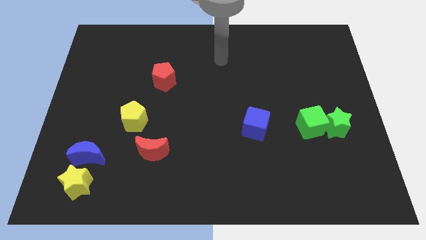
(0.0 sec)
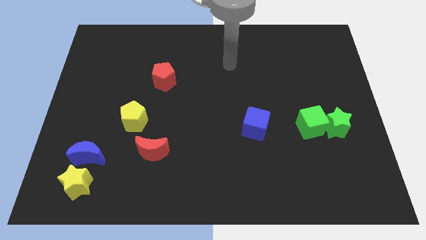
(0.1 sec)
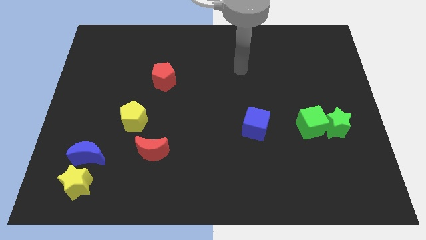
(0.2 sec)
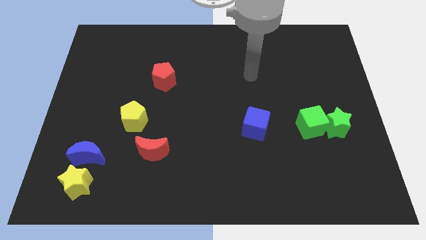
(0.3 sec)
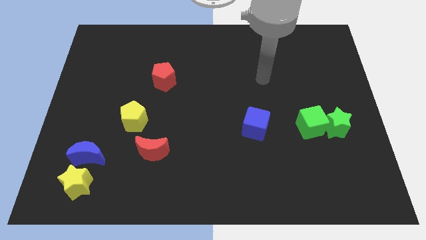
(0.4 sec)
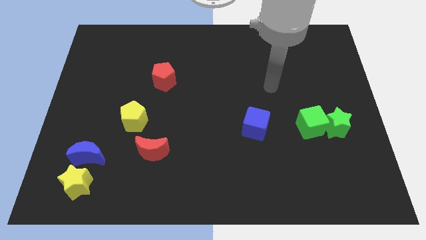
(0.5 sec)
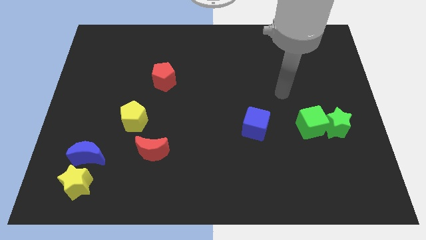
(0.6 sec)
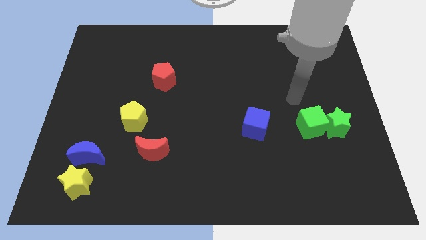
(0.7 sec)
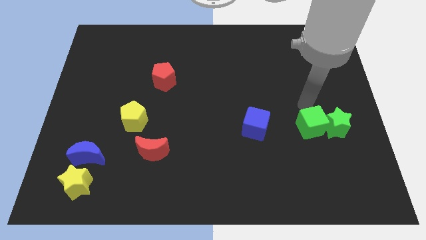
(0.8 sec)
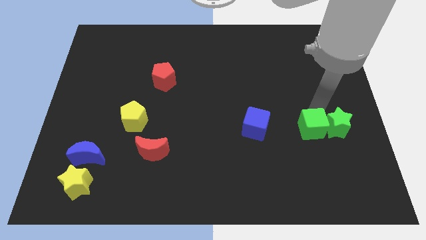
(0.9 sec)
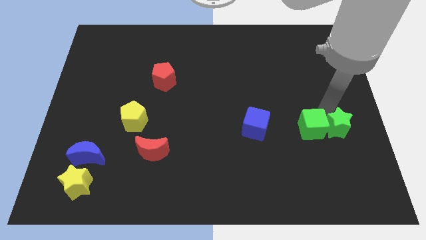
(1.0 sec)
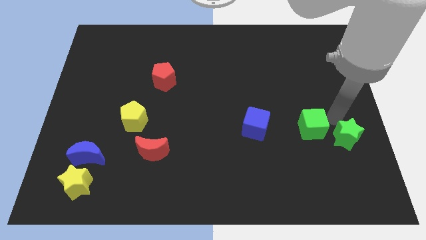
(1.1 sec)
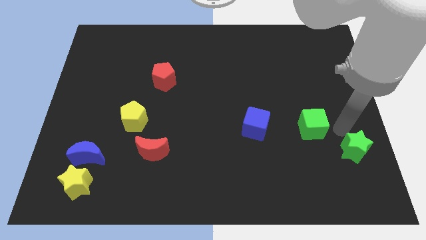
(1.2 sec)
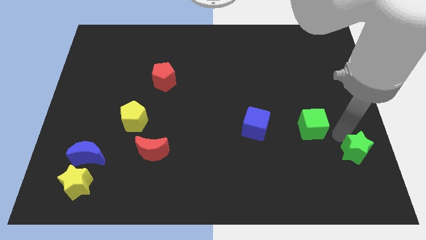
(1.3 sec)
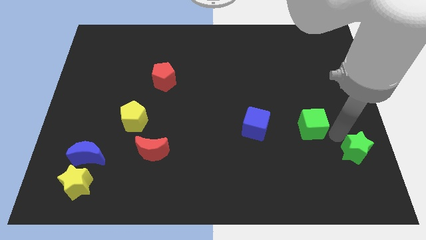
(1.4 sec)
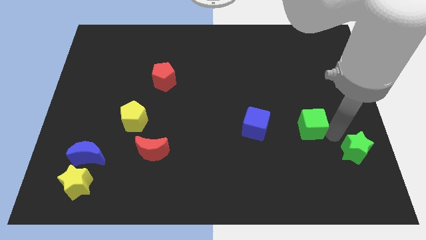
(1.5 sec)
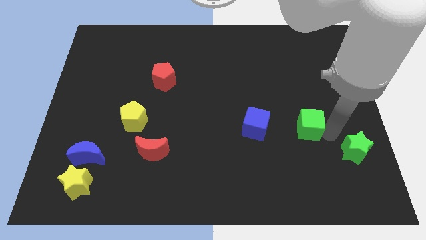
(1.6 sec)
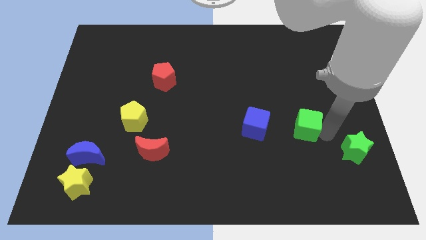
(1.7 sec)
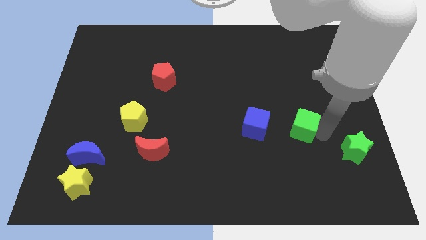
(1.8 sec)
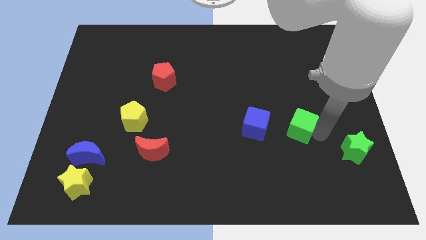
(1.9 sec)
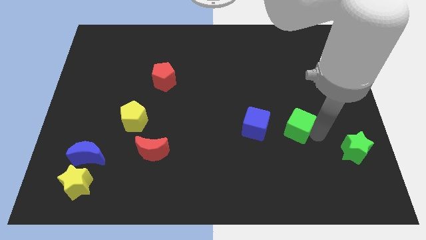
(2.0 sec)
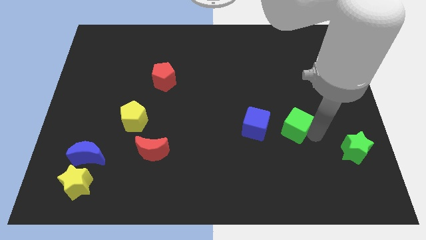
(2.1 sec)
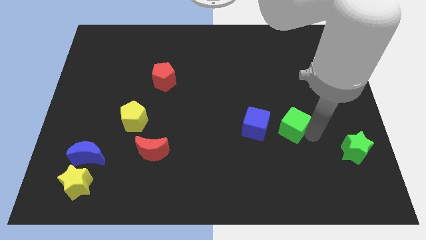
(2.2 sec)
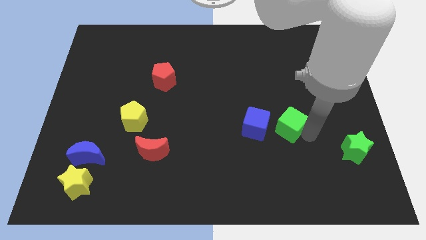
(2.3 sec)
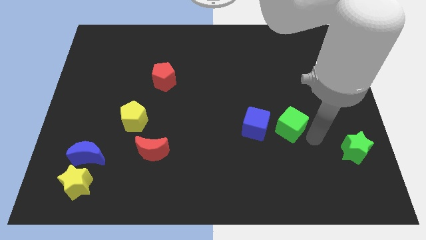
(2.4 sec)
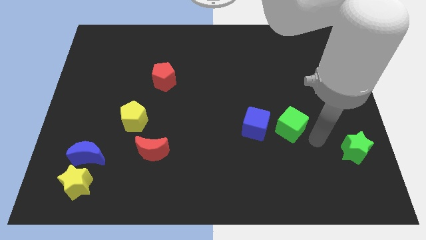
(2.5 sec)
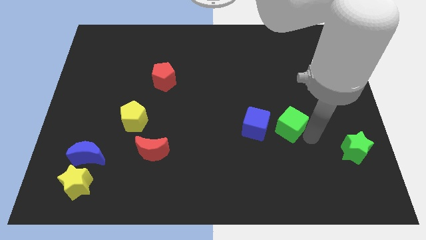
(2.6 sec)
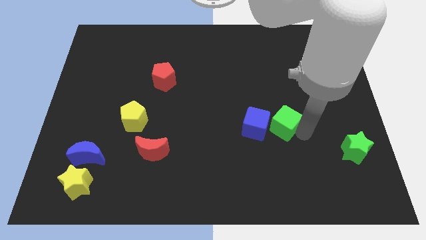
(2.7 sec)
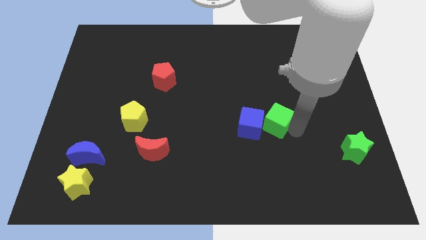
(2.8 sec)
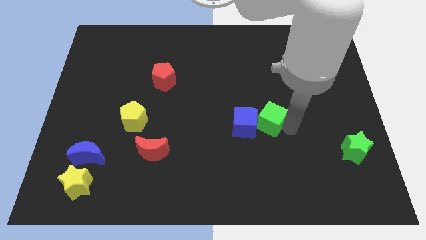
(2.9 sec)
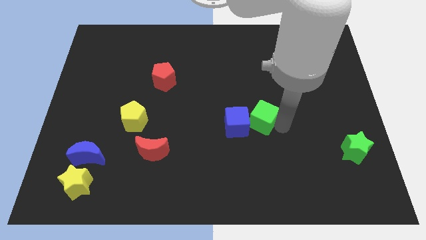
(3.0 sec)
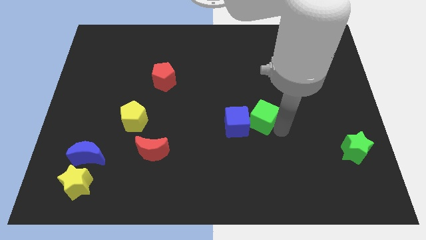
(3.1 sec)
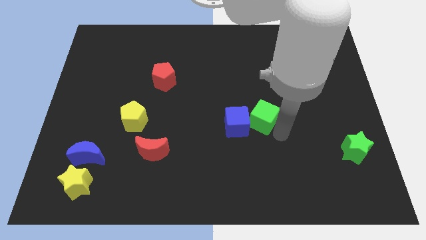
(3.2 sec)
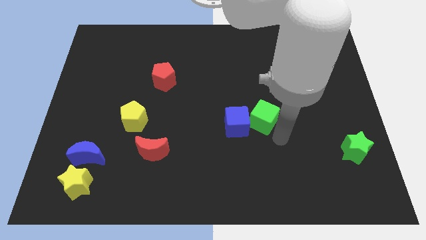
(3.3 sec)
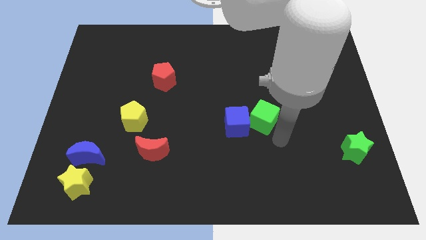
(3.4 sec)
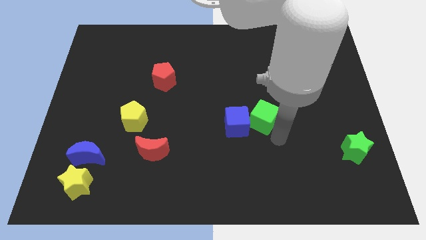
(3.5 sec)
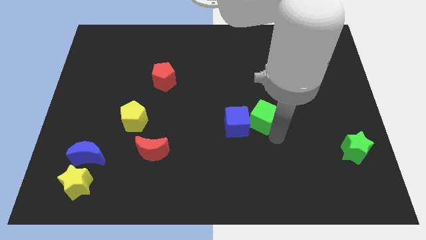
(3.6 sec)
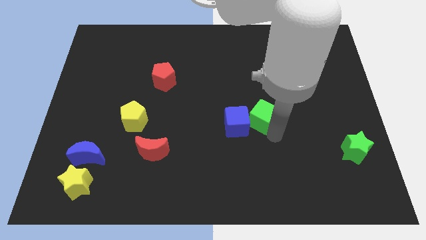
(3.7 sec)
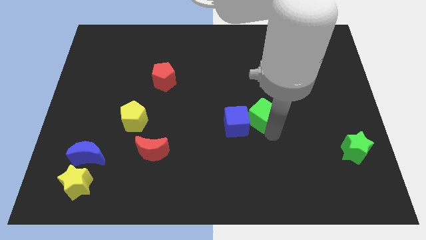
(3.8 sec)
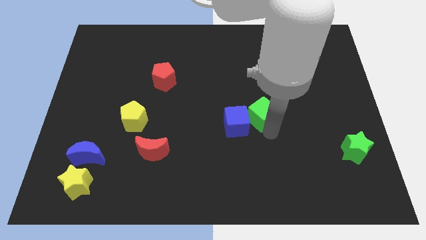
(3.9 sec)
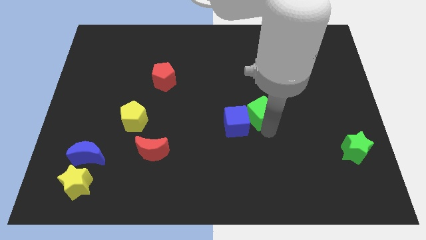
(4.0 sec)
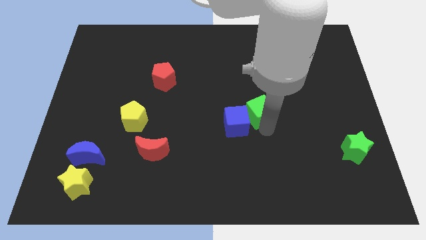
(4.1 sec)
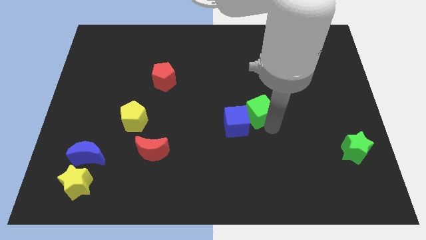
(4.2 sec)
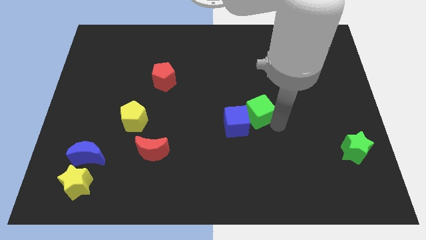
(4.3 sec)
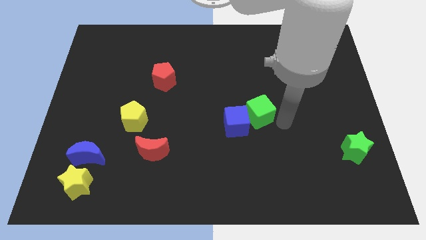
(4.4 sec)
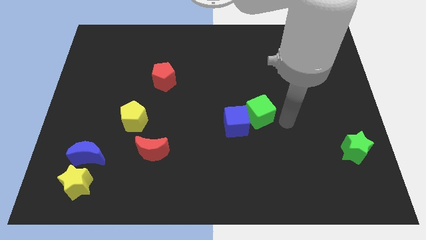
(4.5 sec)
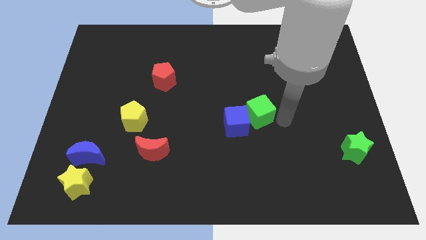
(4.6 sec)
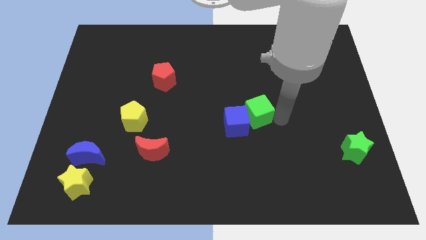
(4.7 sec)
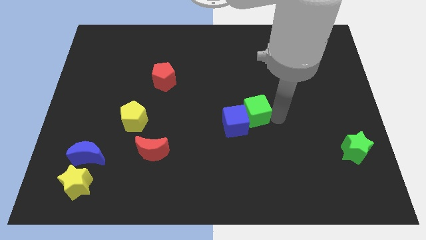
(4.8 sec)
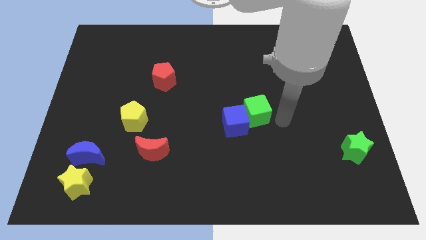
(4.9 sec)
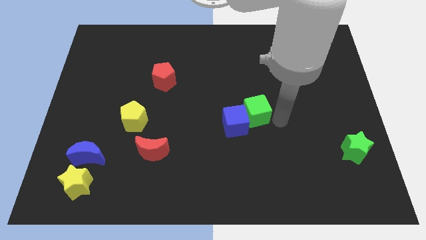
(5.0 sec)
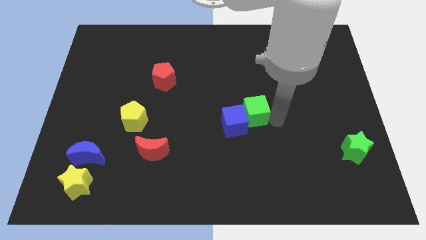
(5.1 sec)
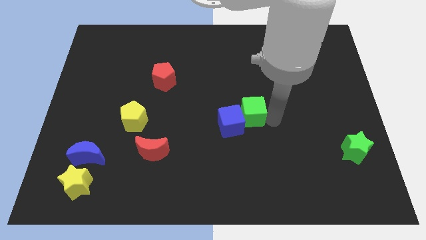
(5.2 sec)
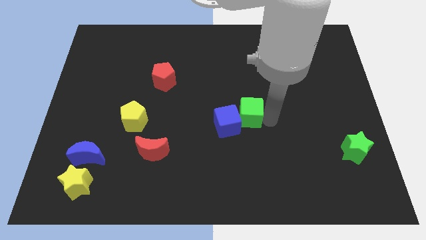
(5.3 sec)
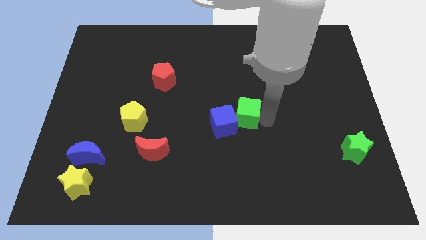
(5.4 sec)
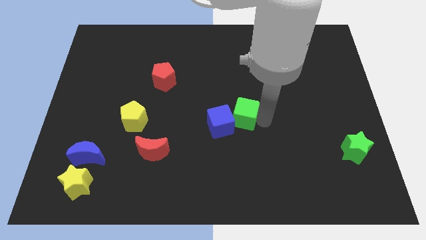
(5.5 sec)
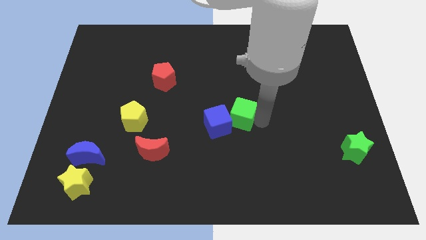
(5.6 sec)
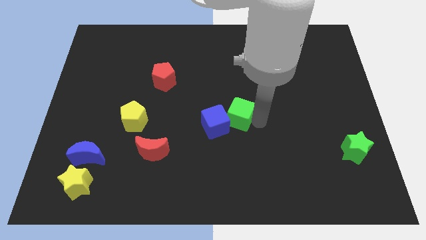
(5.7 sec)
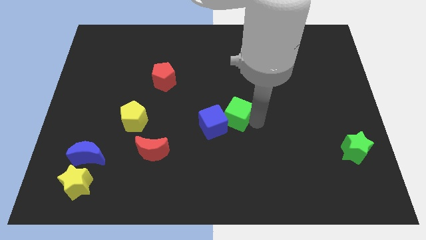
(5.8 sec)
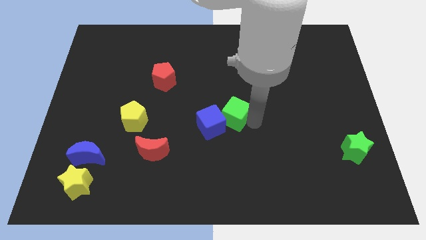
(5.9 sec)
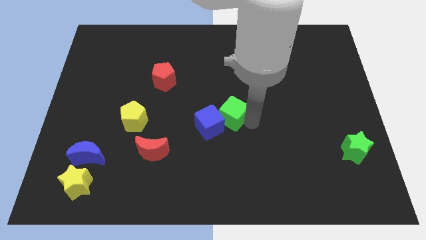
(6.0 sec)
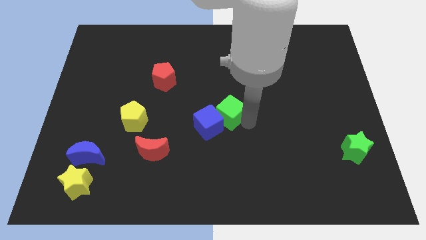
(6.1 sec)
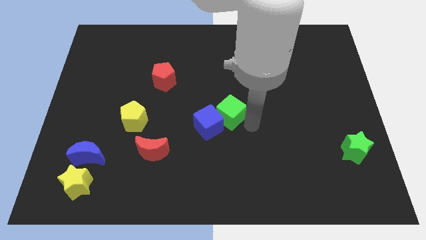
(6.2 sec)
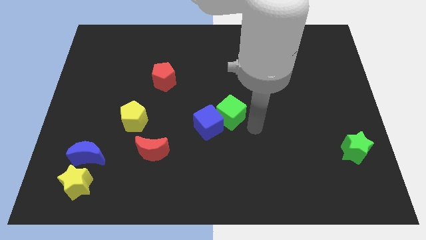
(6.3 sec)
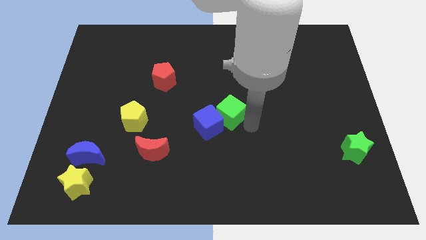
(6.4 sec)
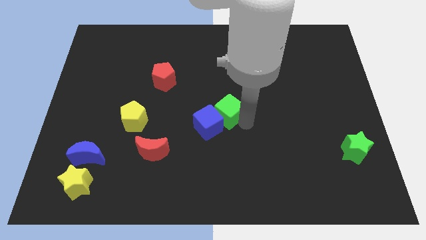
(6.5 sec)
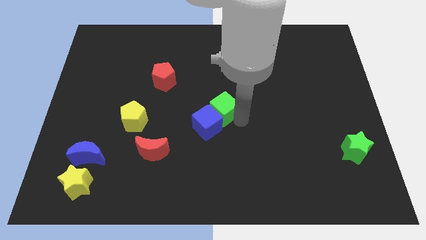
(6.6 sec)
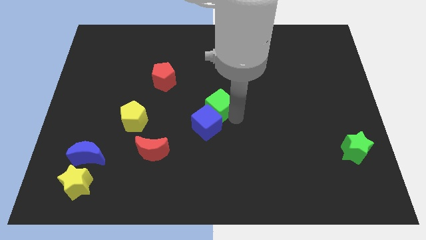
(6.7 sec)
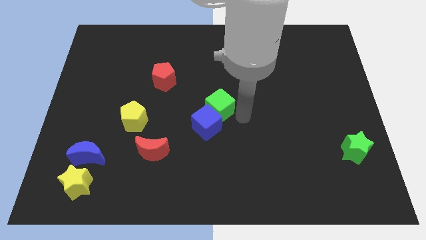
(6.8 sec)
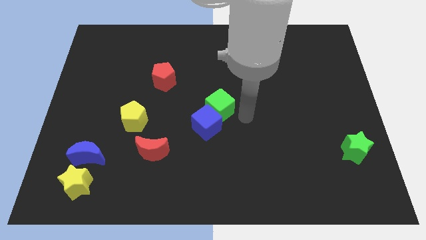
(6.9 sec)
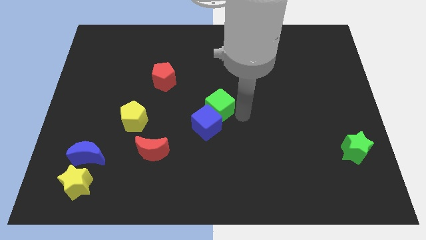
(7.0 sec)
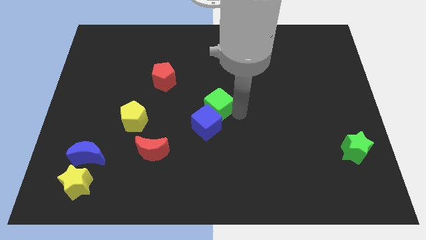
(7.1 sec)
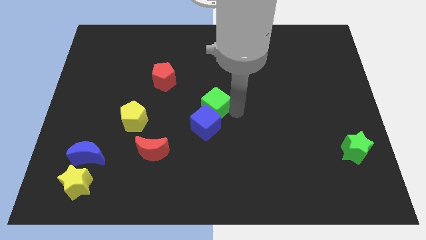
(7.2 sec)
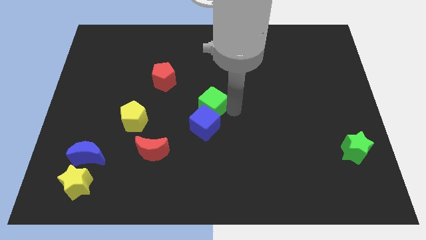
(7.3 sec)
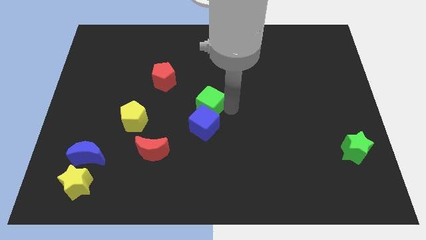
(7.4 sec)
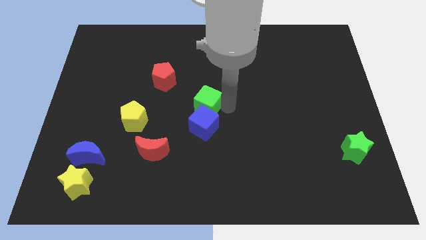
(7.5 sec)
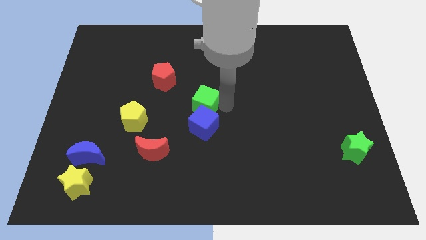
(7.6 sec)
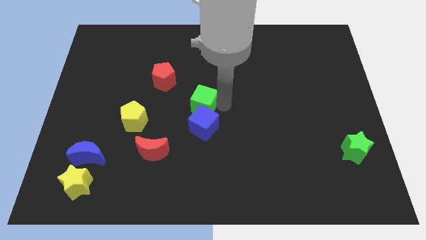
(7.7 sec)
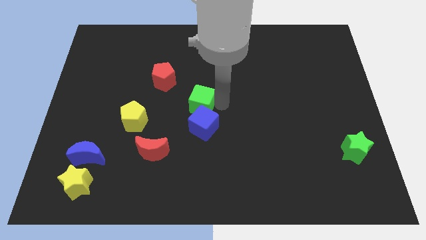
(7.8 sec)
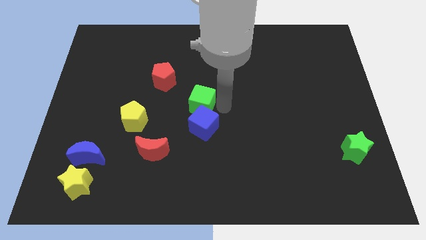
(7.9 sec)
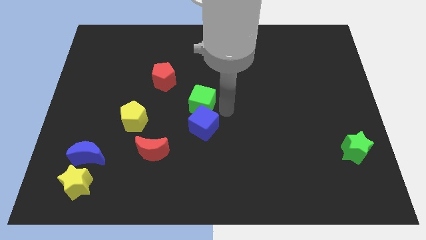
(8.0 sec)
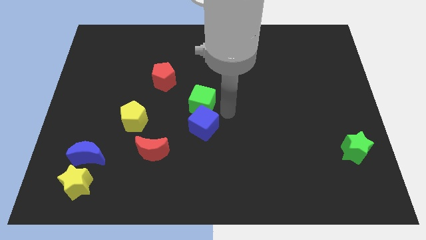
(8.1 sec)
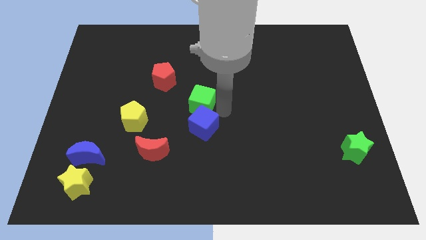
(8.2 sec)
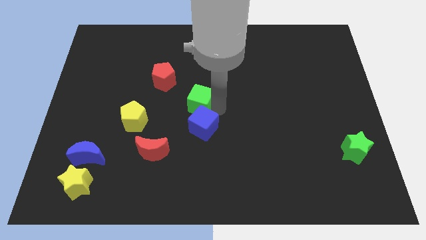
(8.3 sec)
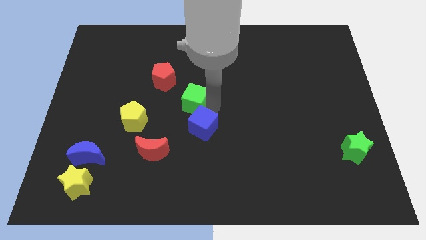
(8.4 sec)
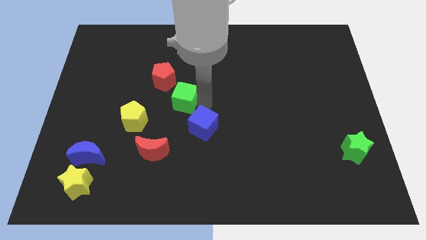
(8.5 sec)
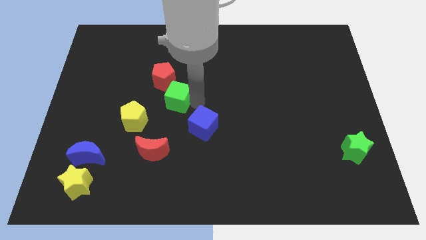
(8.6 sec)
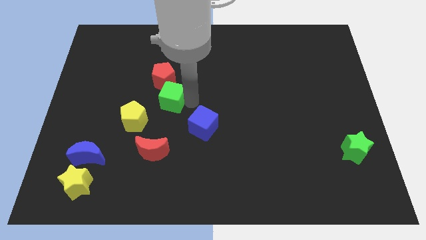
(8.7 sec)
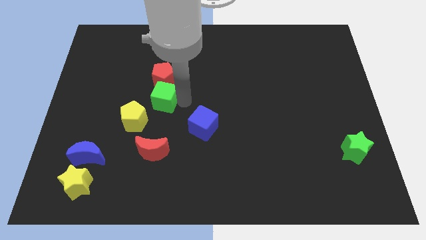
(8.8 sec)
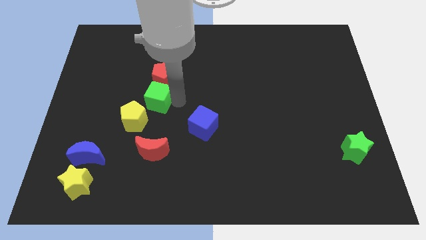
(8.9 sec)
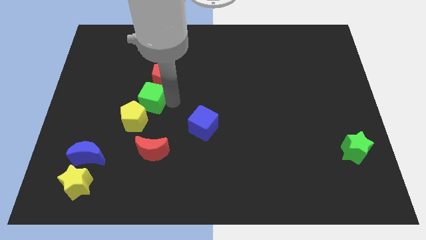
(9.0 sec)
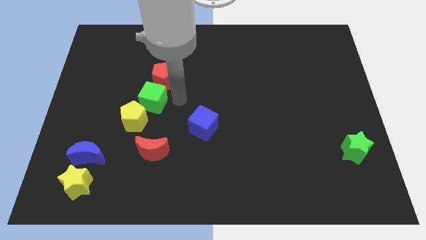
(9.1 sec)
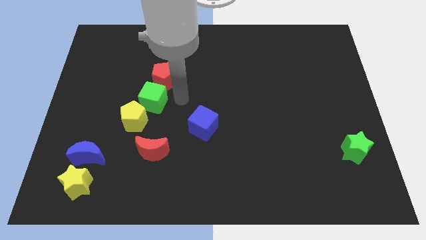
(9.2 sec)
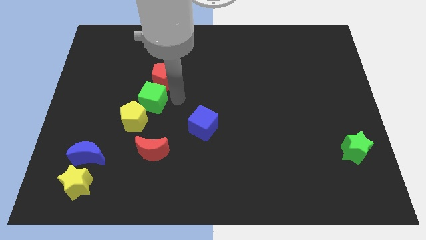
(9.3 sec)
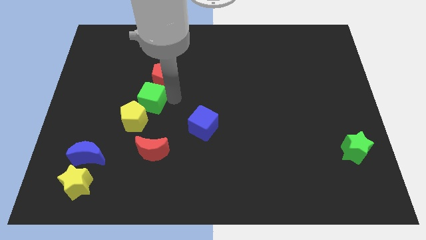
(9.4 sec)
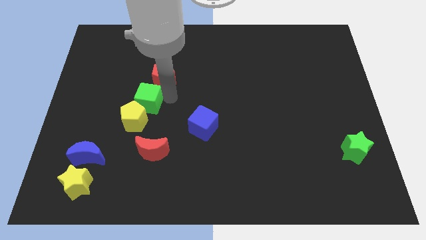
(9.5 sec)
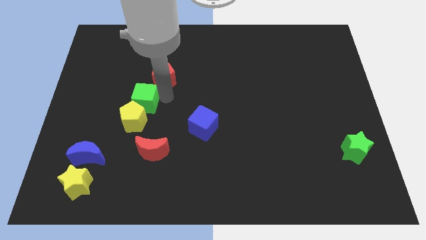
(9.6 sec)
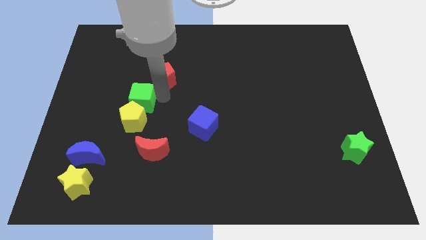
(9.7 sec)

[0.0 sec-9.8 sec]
put the green cube to the top left of the yellow pentagon
